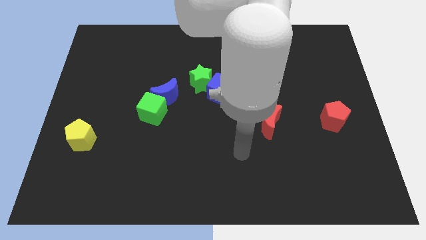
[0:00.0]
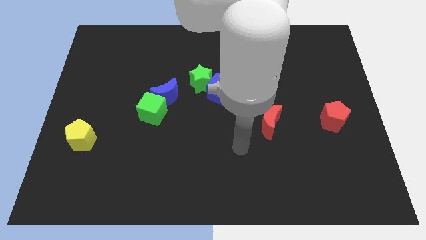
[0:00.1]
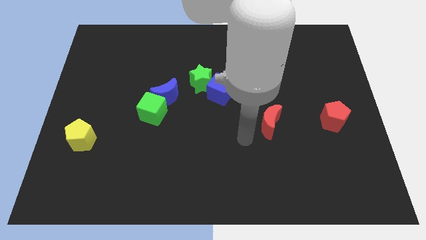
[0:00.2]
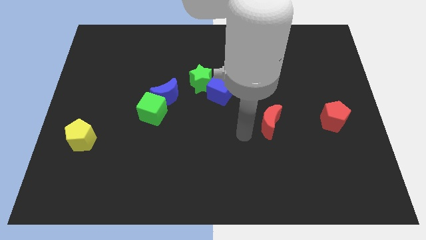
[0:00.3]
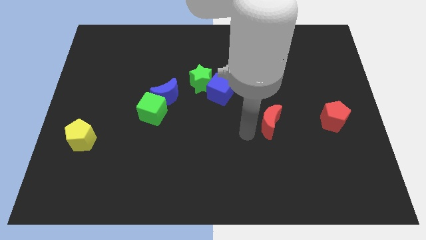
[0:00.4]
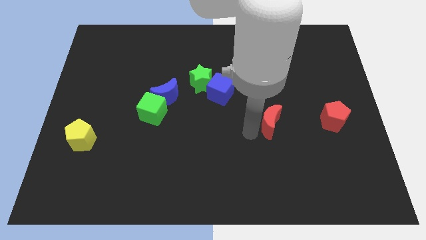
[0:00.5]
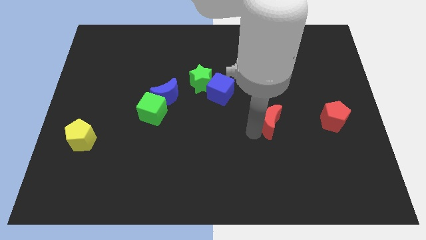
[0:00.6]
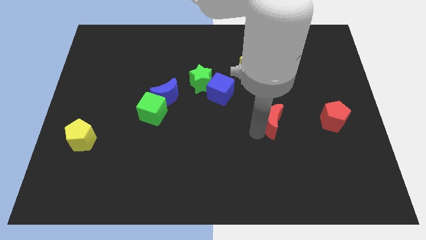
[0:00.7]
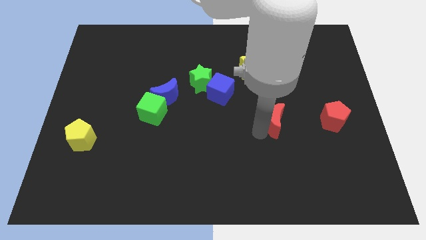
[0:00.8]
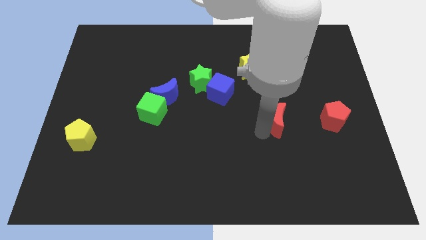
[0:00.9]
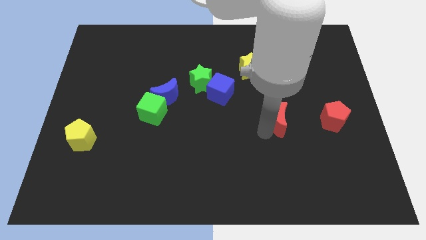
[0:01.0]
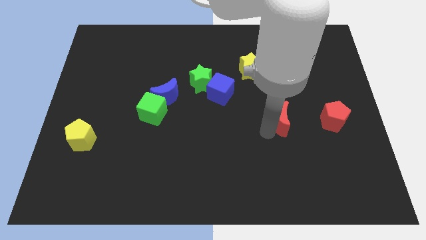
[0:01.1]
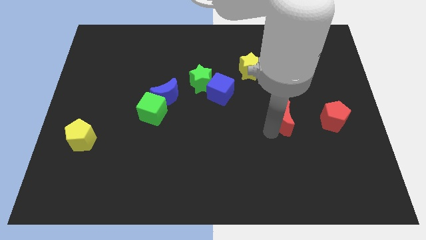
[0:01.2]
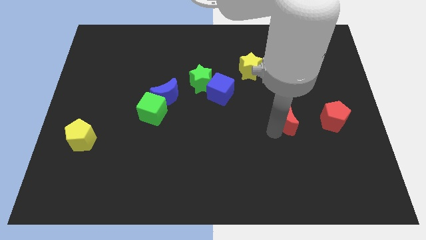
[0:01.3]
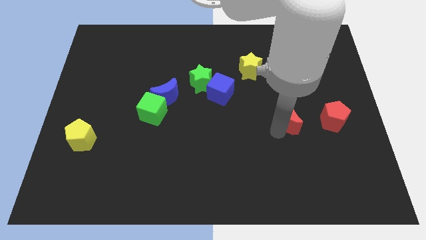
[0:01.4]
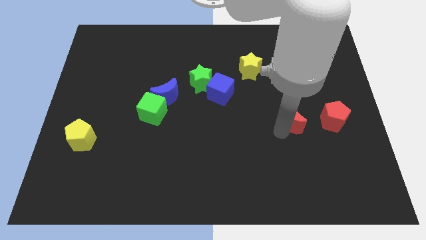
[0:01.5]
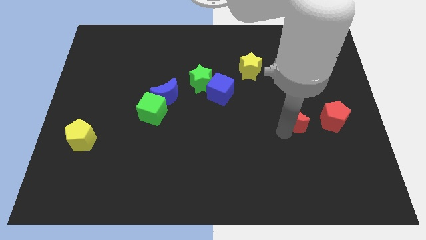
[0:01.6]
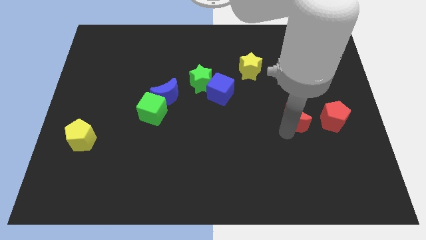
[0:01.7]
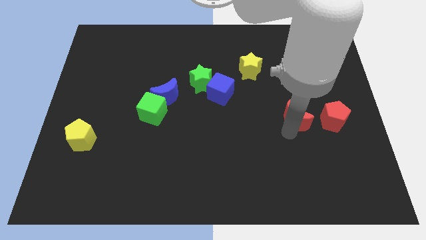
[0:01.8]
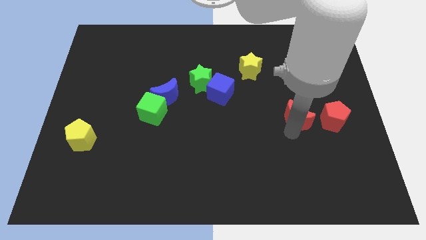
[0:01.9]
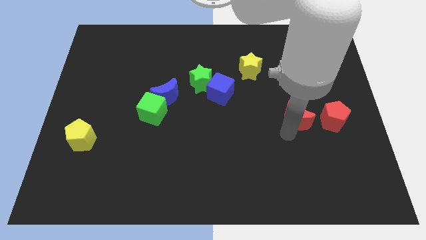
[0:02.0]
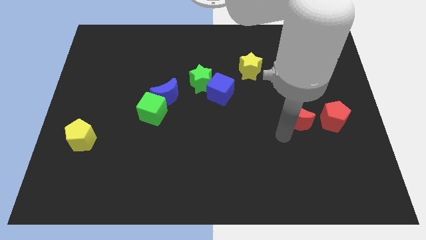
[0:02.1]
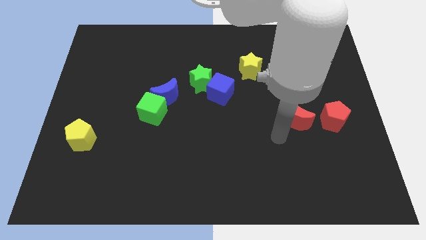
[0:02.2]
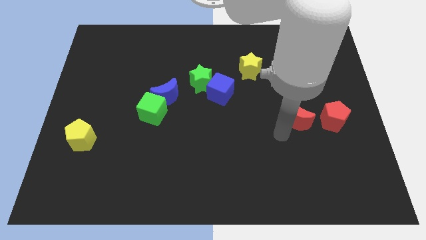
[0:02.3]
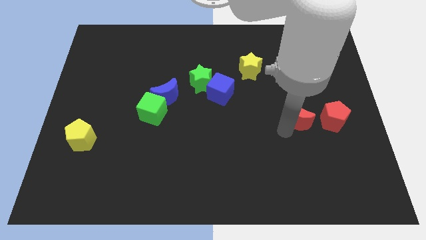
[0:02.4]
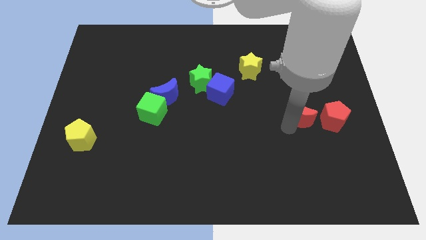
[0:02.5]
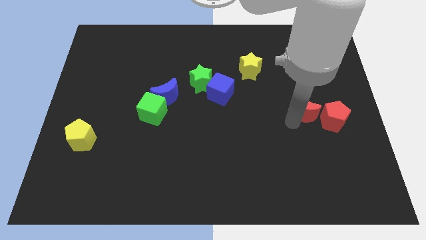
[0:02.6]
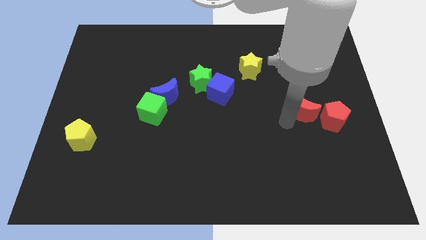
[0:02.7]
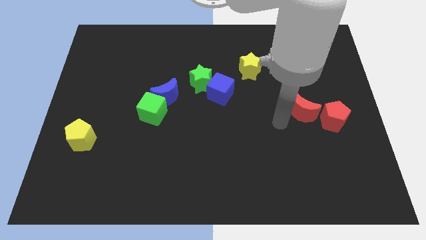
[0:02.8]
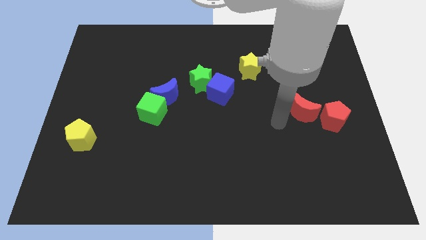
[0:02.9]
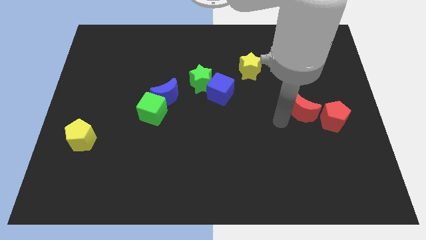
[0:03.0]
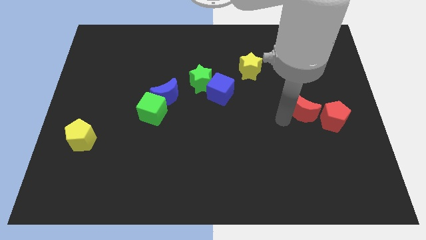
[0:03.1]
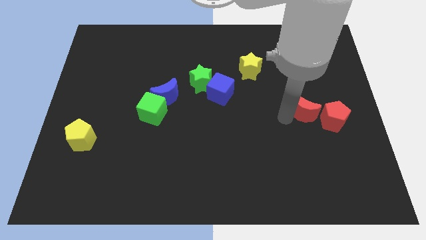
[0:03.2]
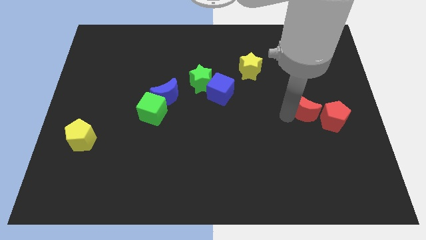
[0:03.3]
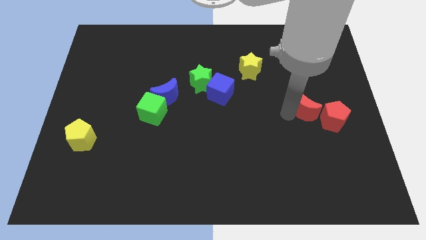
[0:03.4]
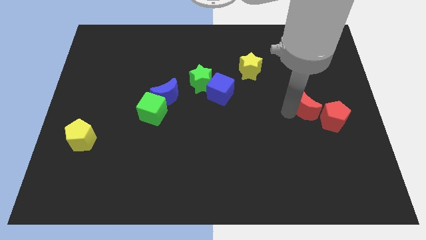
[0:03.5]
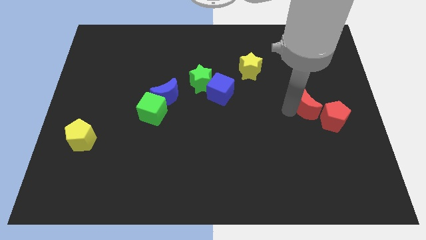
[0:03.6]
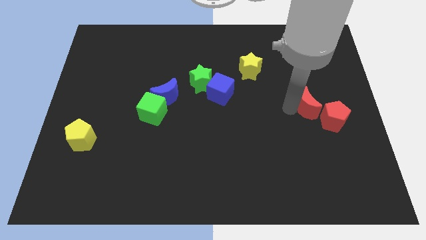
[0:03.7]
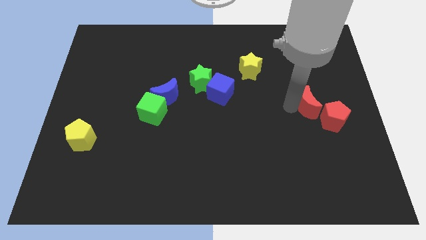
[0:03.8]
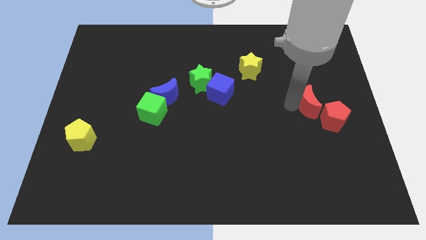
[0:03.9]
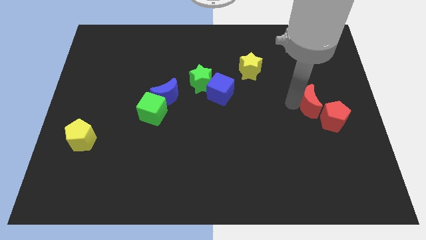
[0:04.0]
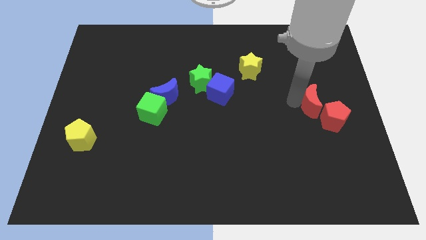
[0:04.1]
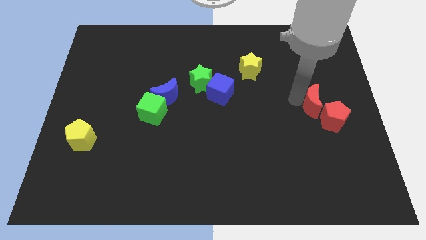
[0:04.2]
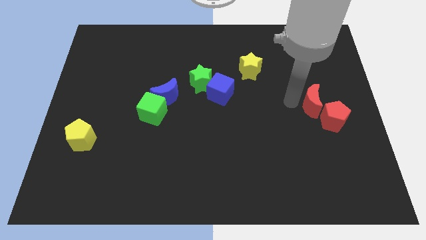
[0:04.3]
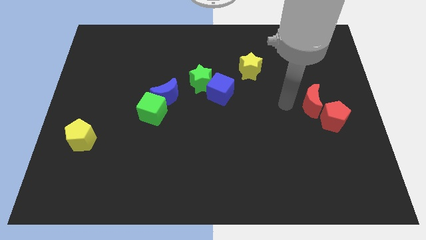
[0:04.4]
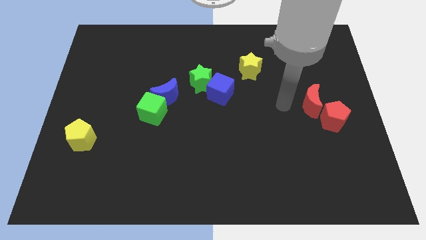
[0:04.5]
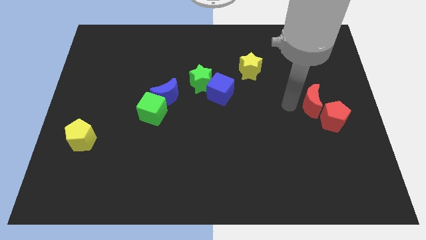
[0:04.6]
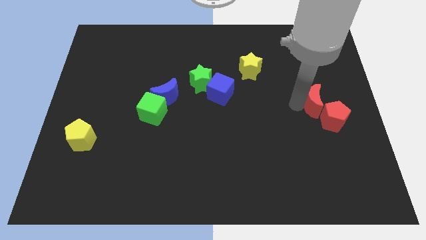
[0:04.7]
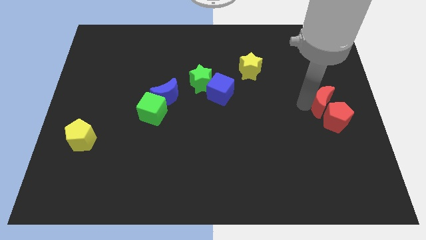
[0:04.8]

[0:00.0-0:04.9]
push the red moon to the center right
